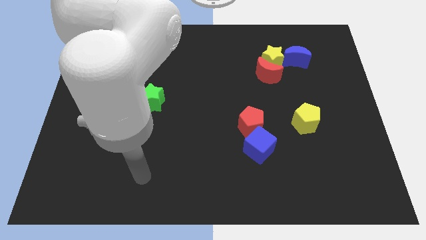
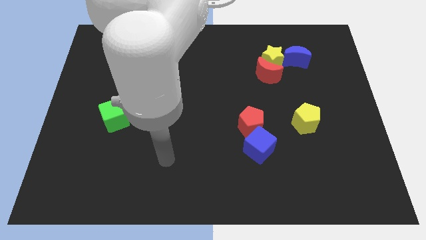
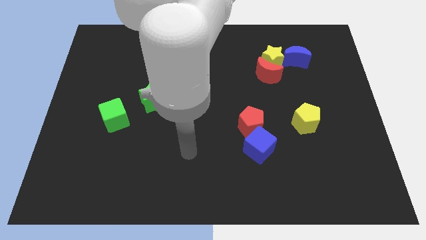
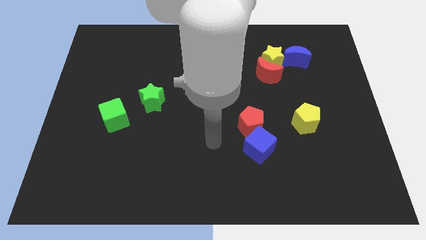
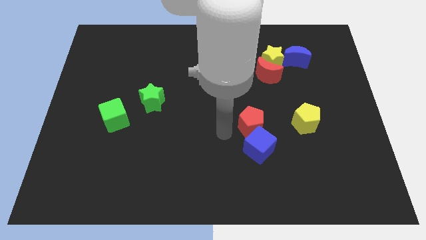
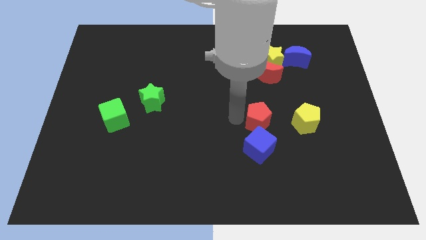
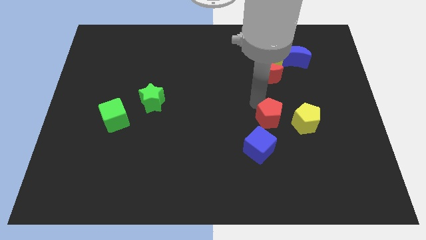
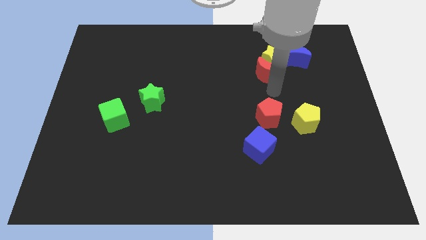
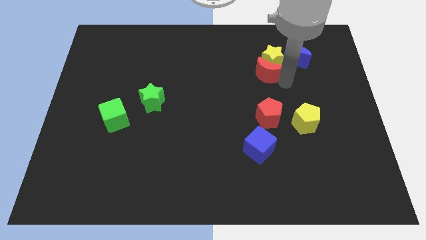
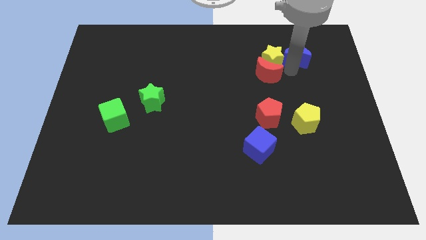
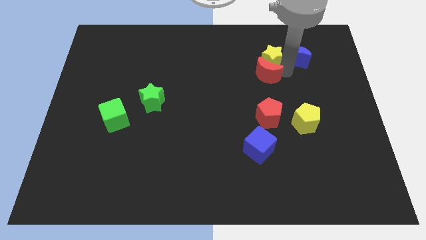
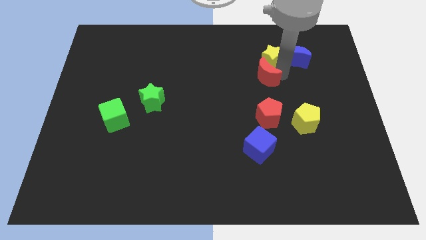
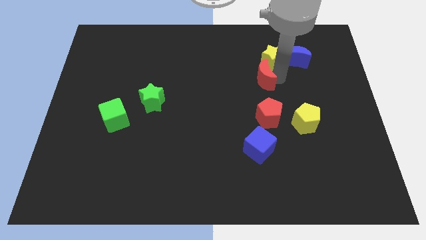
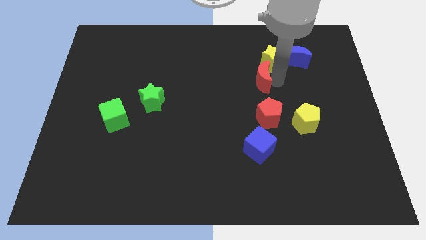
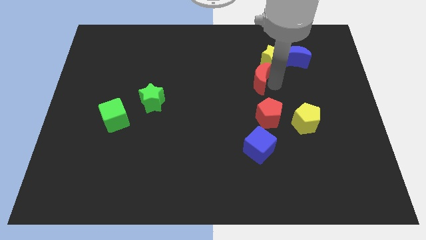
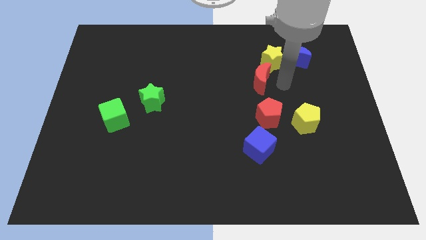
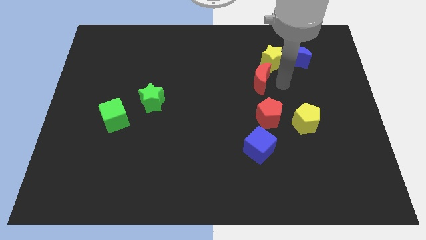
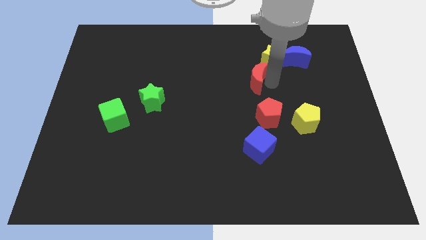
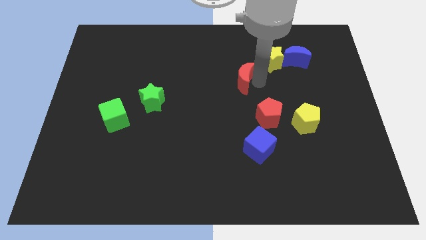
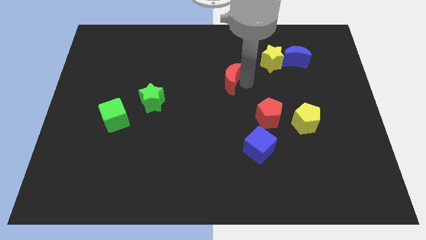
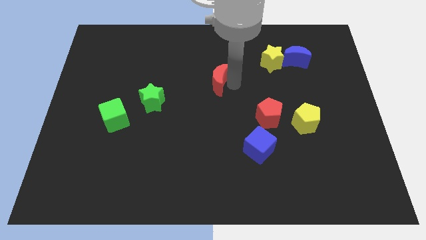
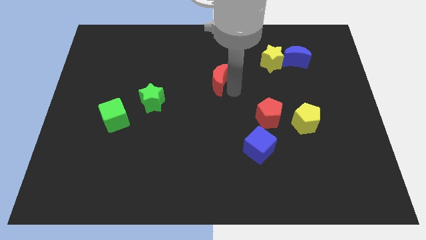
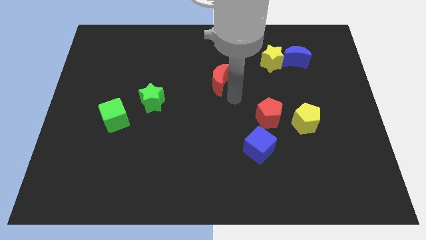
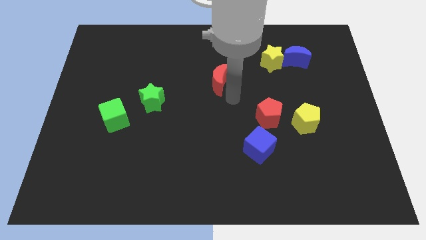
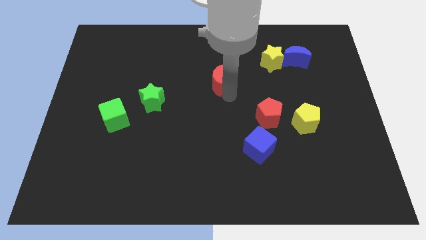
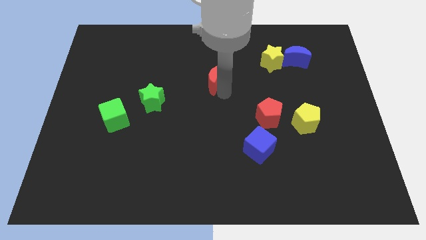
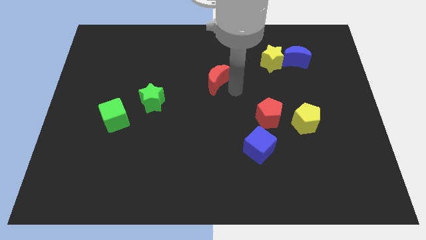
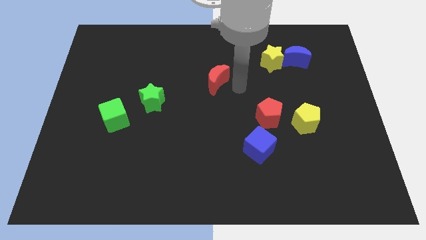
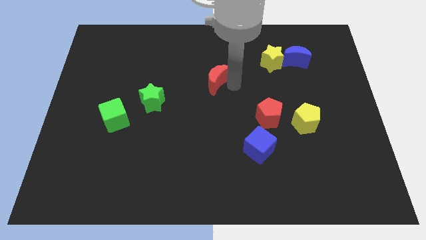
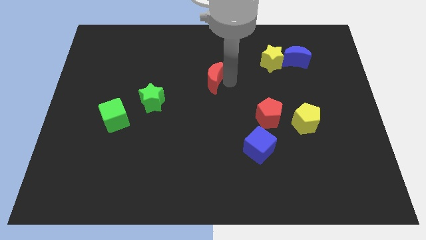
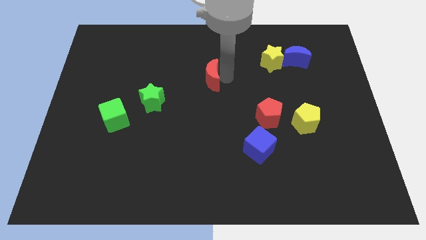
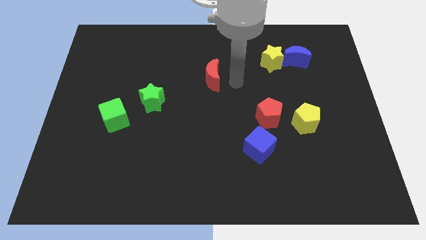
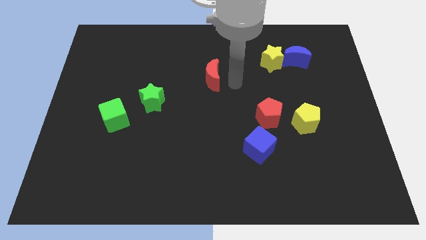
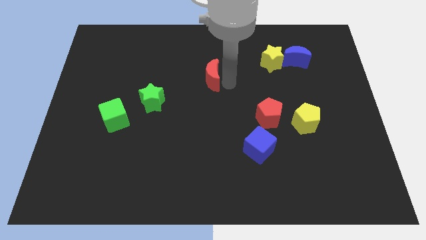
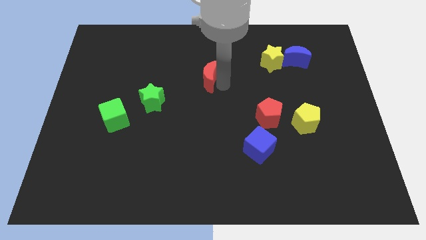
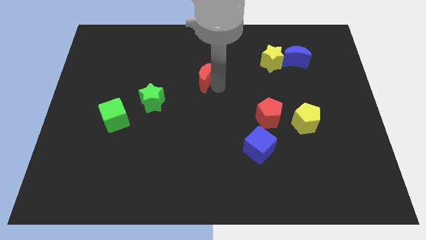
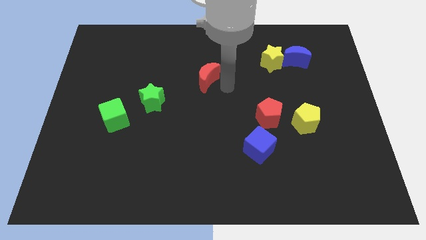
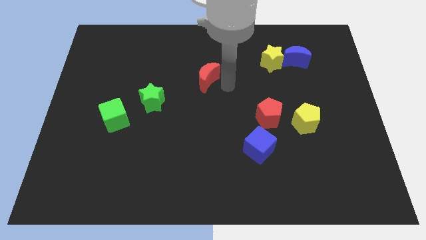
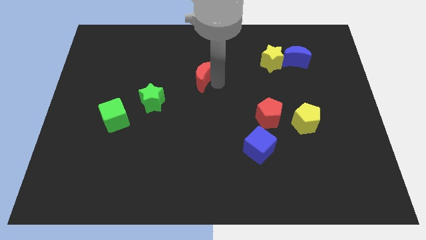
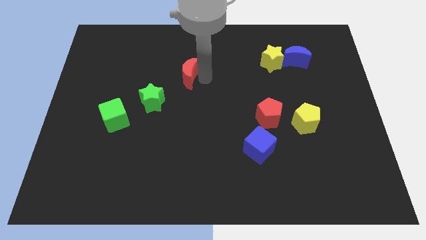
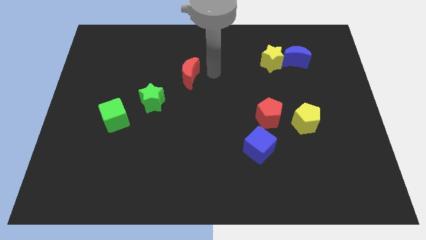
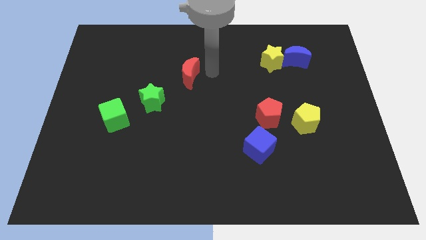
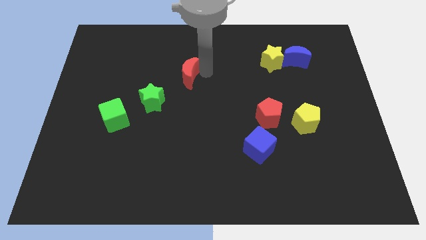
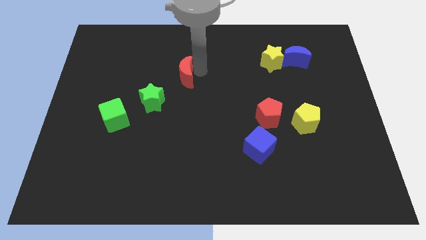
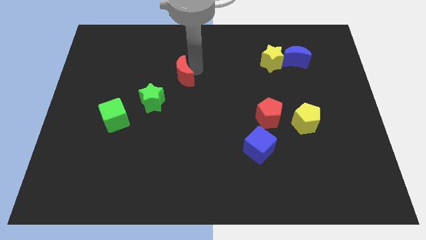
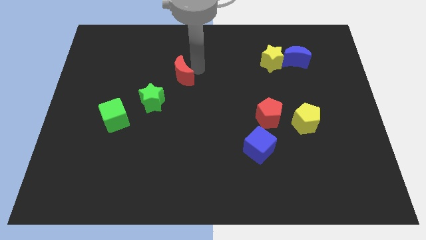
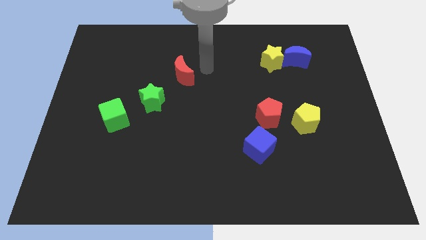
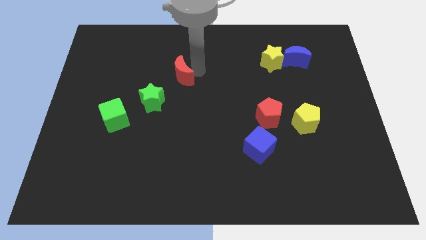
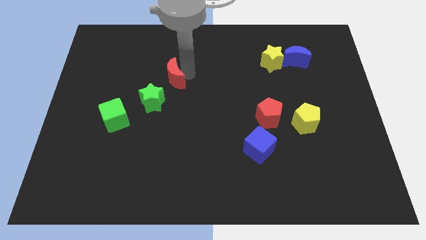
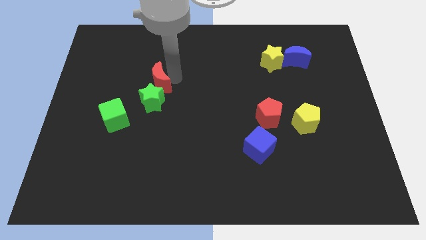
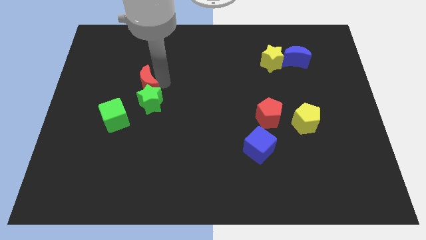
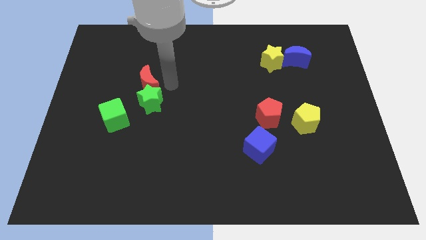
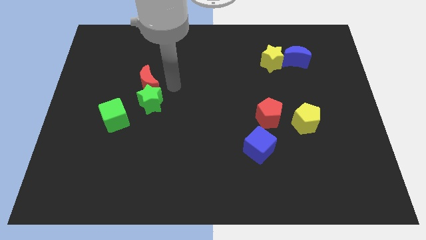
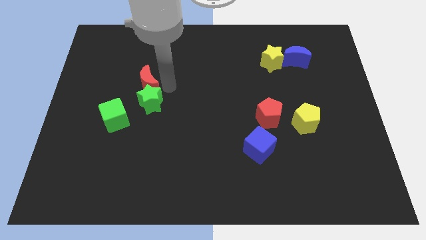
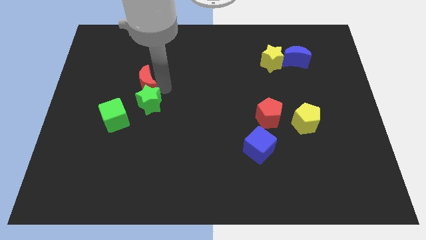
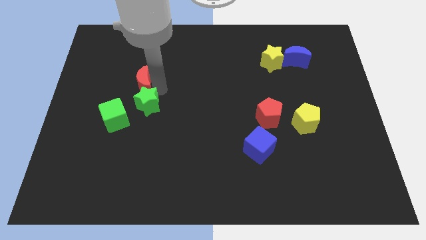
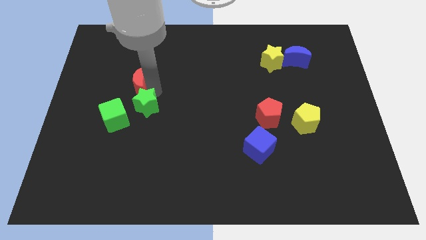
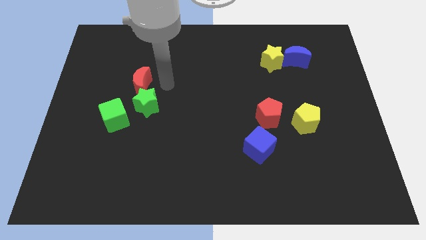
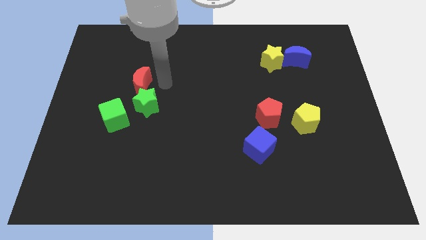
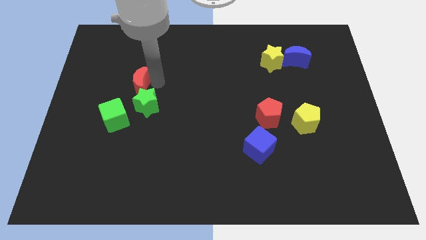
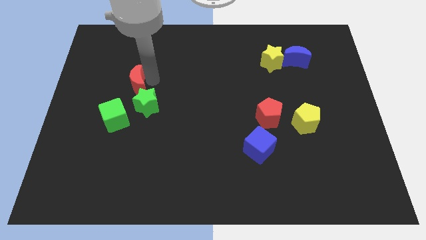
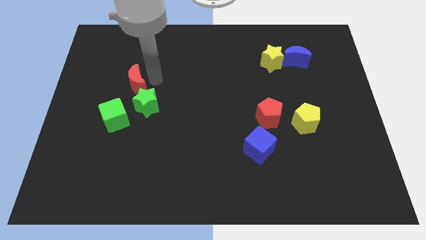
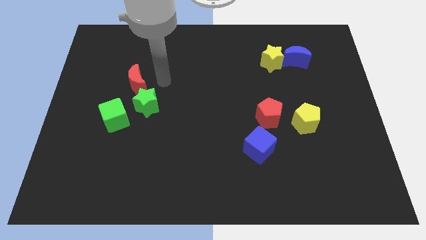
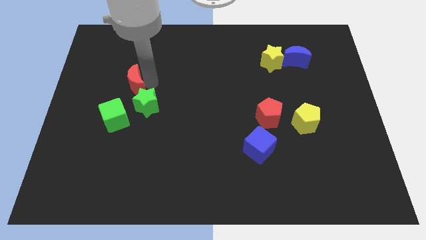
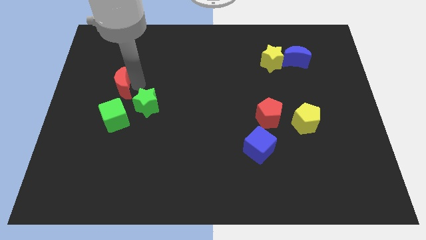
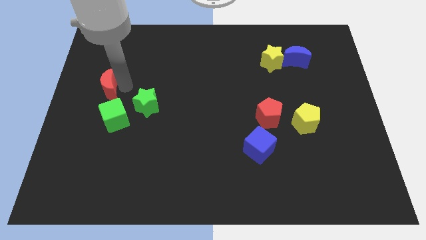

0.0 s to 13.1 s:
slide the red moon to the center left
